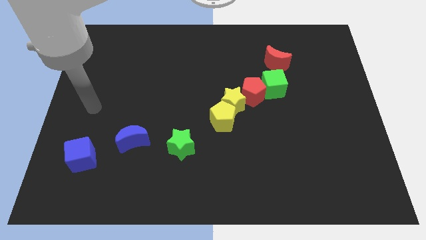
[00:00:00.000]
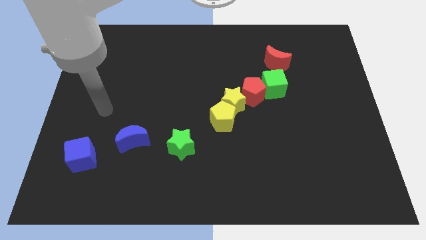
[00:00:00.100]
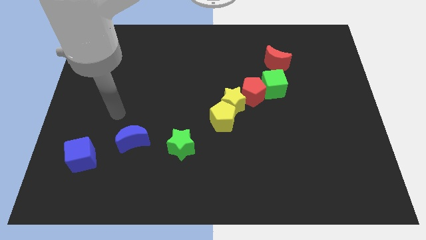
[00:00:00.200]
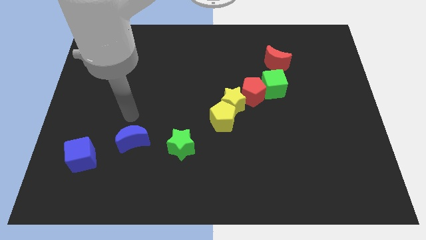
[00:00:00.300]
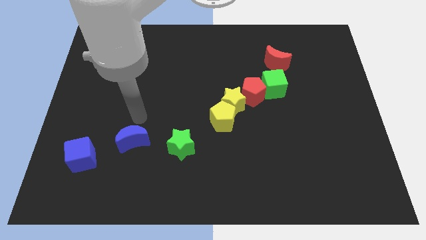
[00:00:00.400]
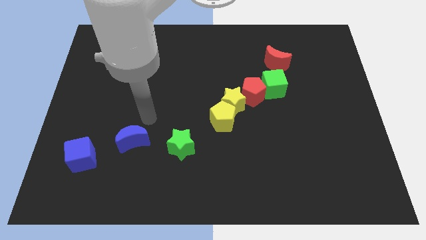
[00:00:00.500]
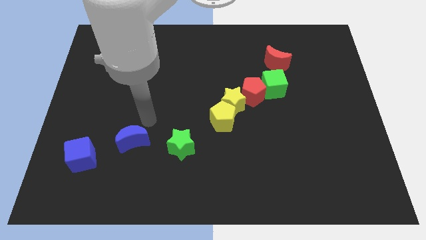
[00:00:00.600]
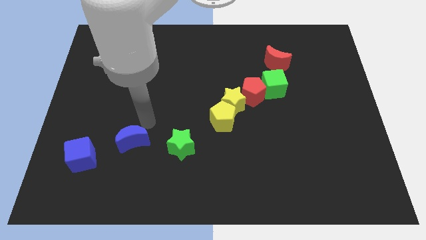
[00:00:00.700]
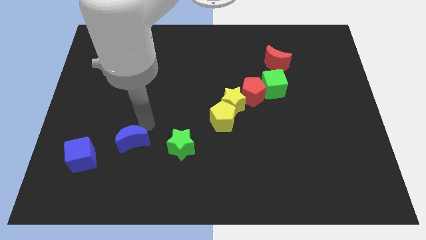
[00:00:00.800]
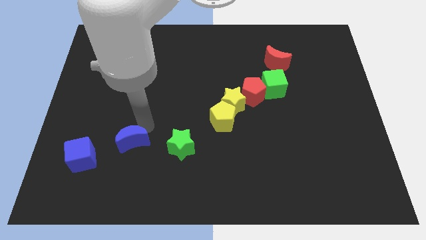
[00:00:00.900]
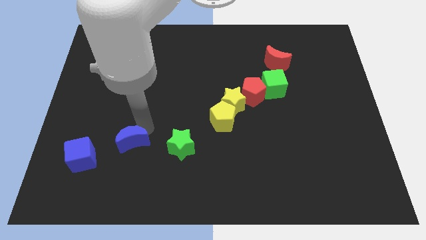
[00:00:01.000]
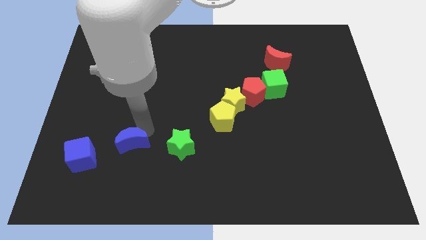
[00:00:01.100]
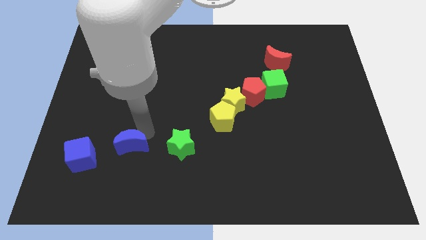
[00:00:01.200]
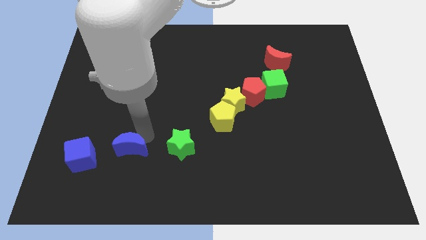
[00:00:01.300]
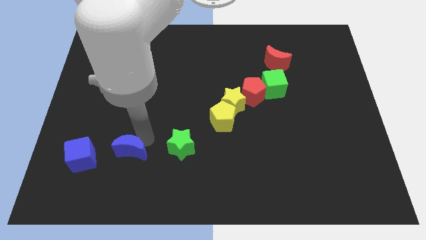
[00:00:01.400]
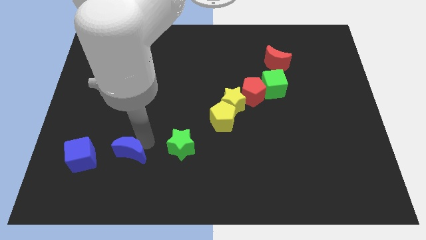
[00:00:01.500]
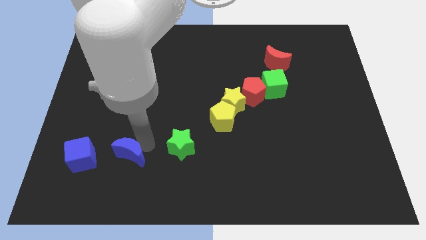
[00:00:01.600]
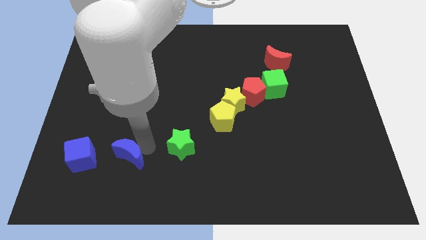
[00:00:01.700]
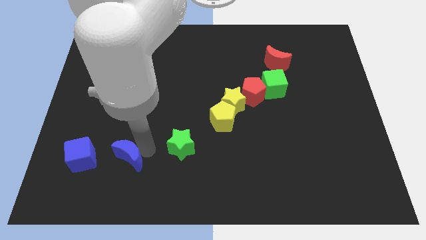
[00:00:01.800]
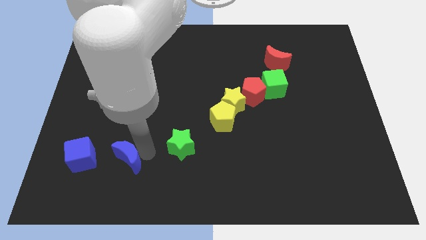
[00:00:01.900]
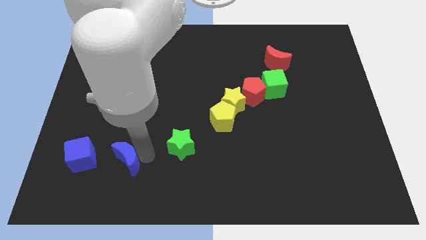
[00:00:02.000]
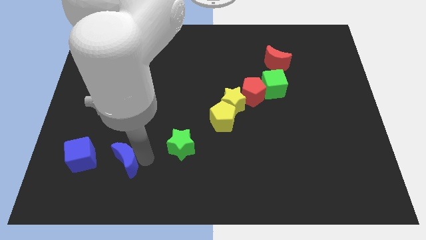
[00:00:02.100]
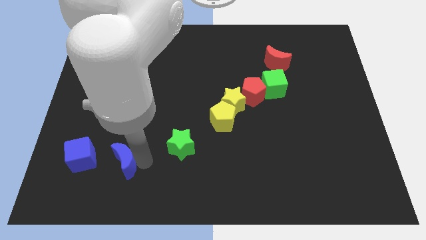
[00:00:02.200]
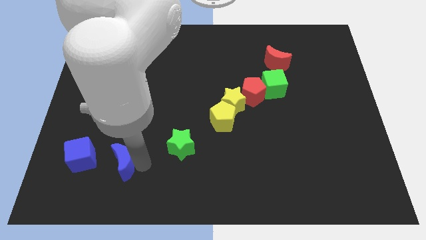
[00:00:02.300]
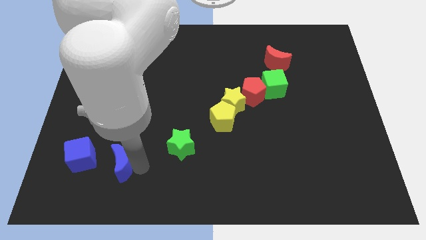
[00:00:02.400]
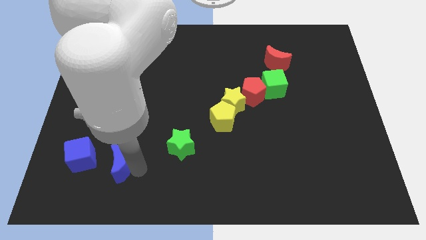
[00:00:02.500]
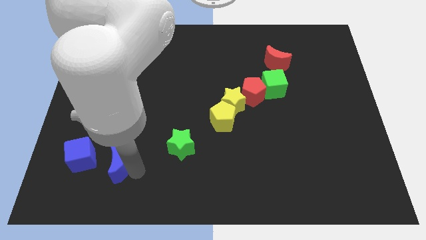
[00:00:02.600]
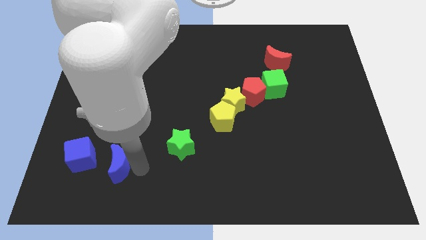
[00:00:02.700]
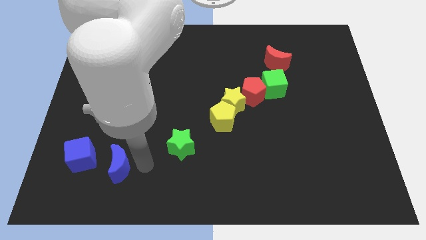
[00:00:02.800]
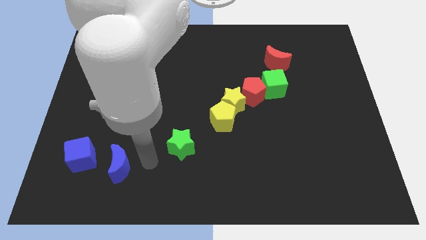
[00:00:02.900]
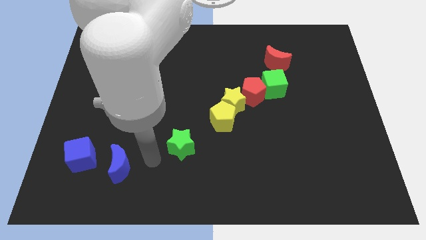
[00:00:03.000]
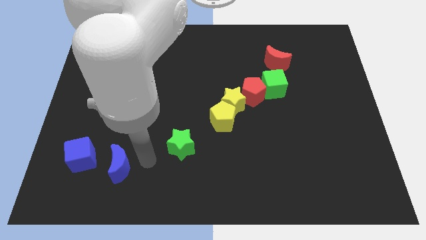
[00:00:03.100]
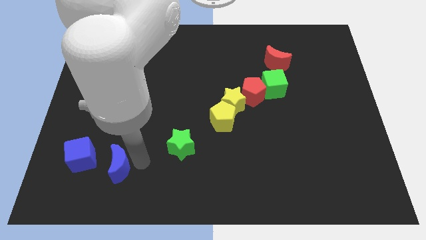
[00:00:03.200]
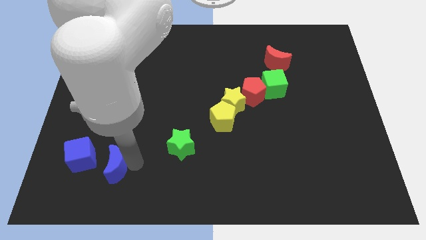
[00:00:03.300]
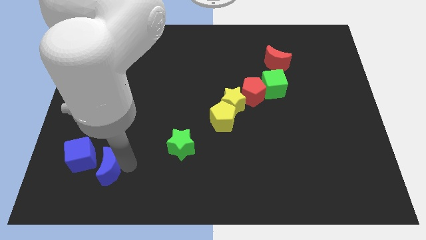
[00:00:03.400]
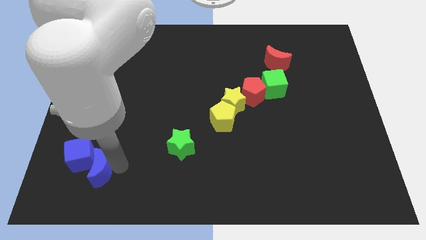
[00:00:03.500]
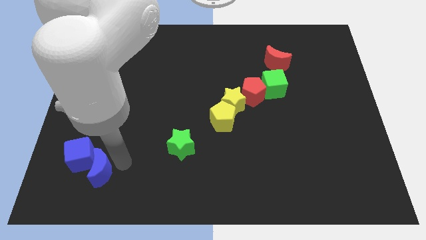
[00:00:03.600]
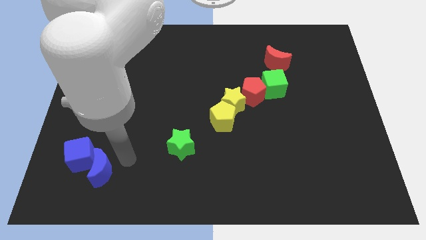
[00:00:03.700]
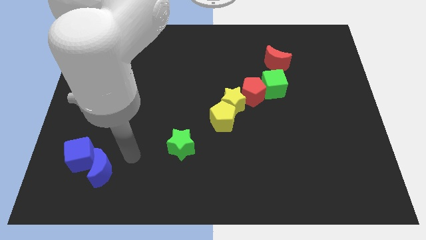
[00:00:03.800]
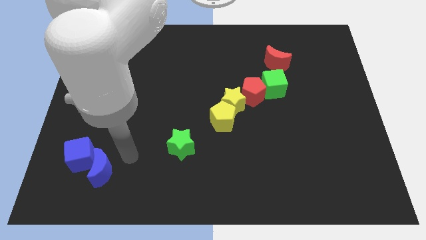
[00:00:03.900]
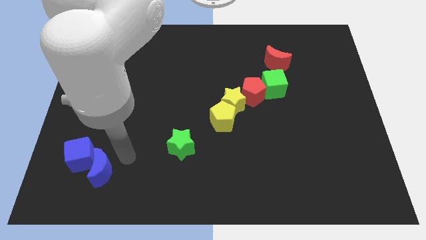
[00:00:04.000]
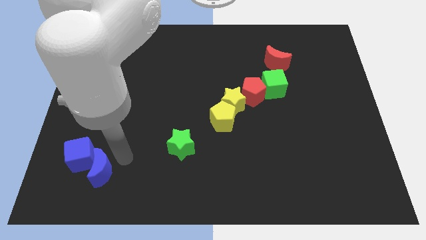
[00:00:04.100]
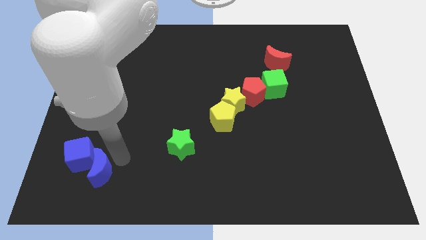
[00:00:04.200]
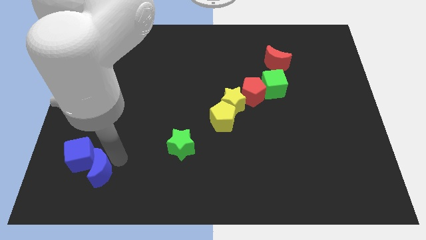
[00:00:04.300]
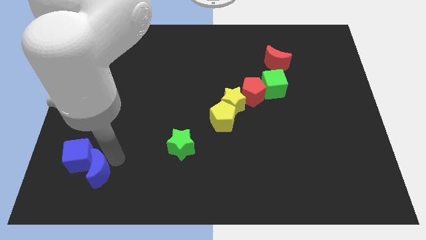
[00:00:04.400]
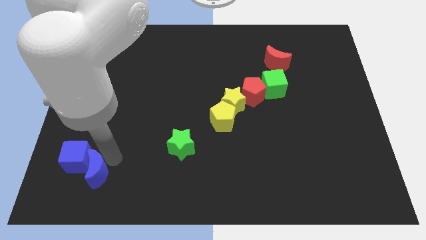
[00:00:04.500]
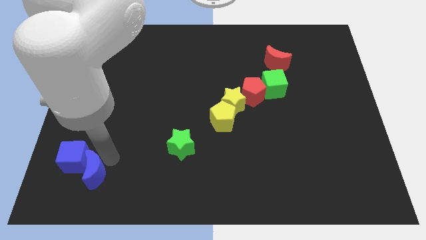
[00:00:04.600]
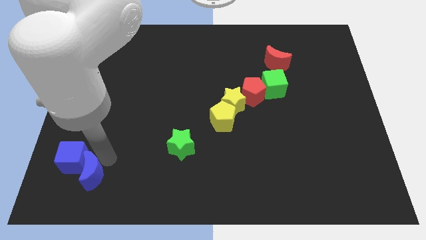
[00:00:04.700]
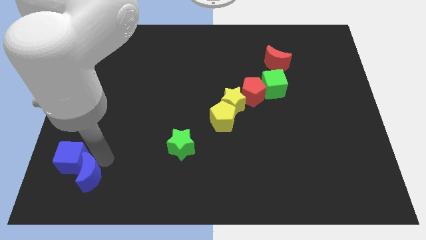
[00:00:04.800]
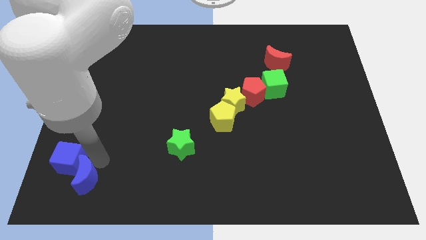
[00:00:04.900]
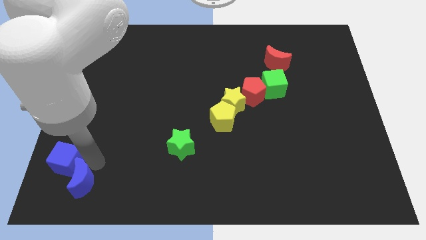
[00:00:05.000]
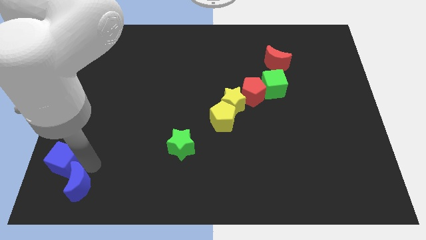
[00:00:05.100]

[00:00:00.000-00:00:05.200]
put the blue moon to the bottom left of the board
